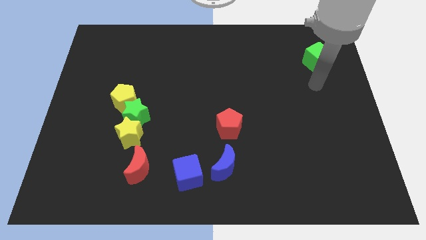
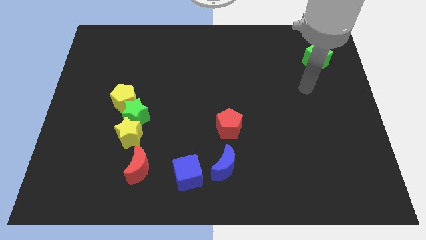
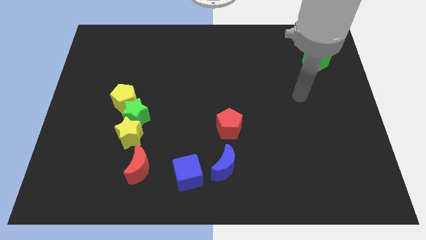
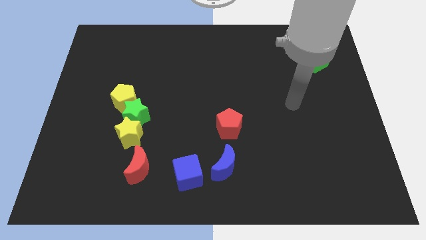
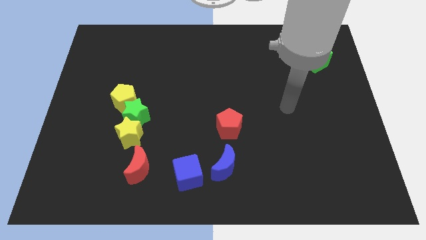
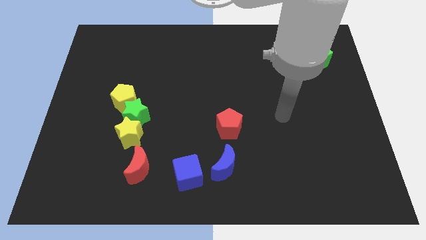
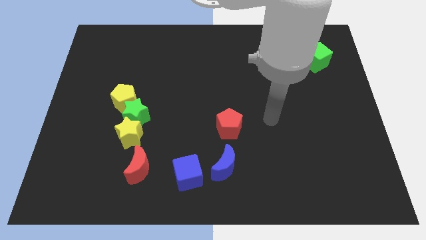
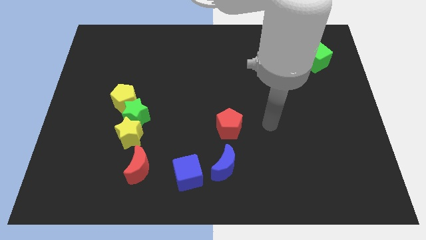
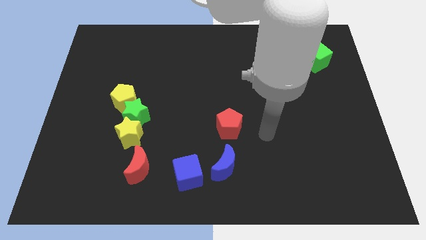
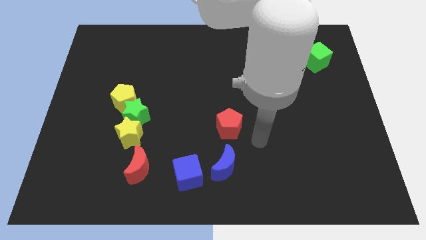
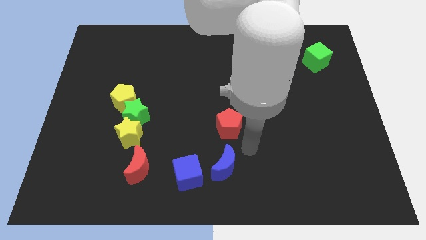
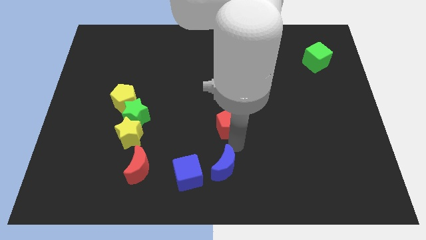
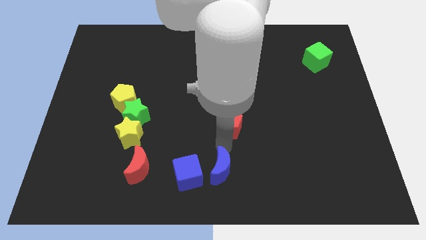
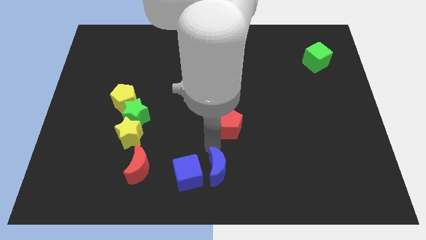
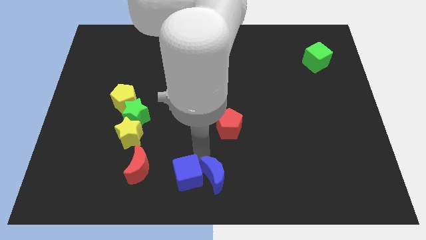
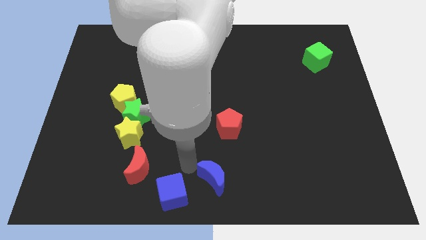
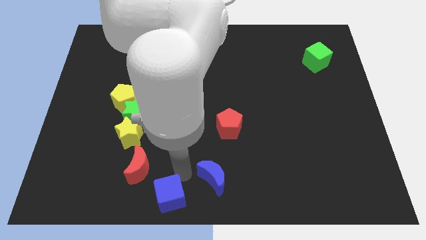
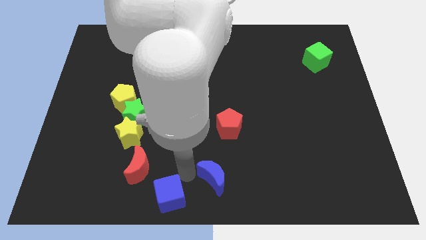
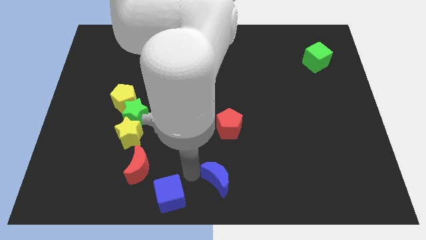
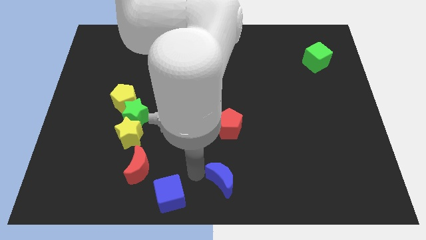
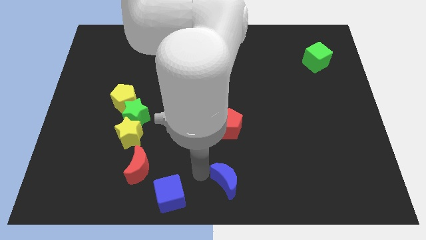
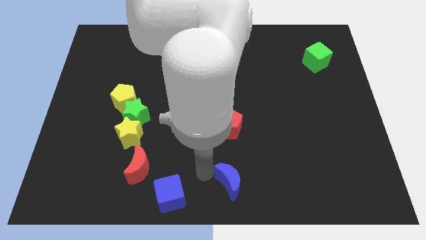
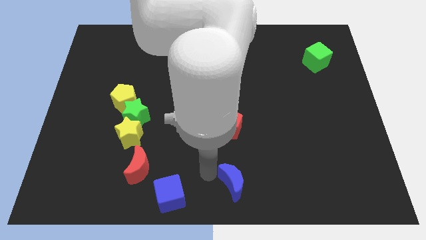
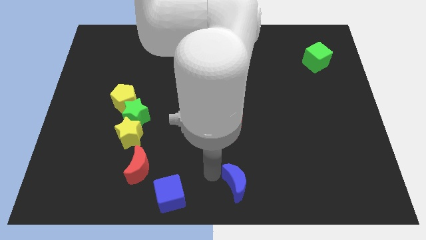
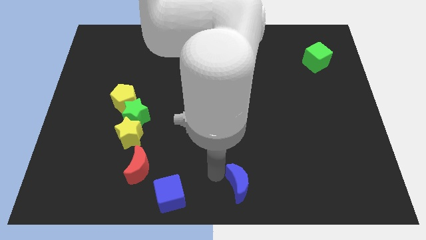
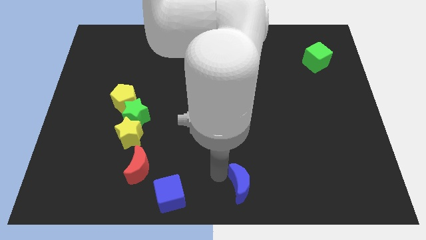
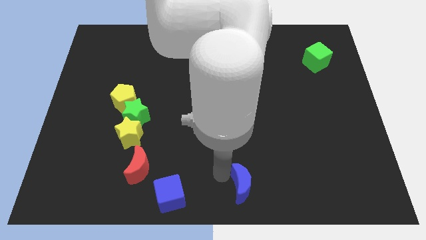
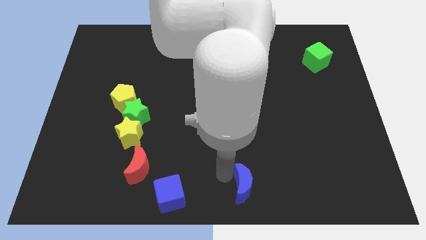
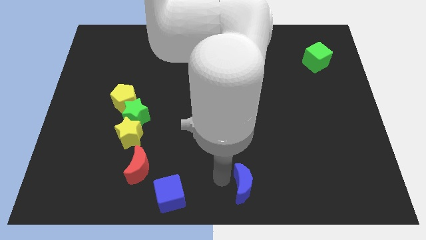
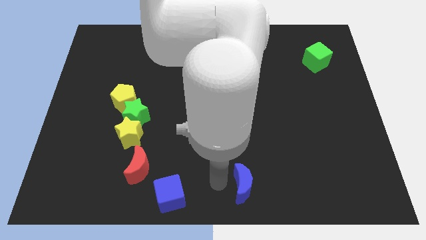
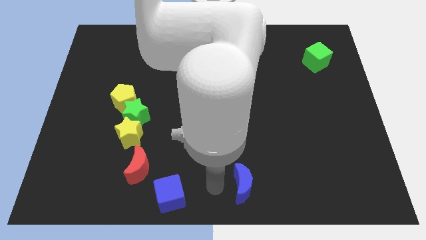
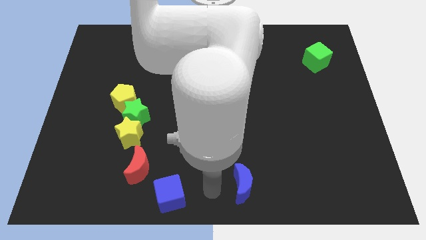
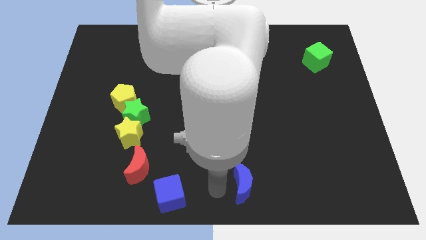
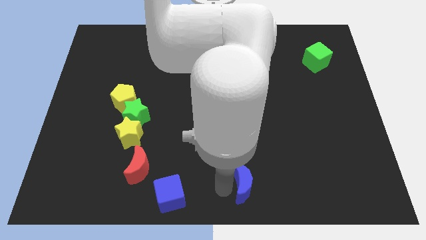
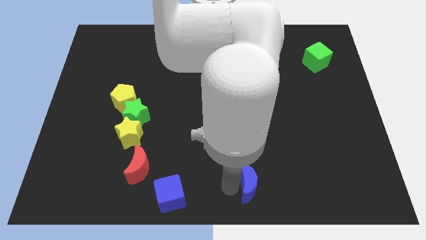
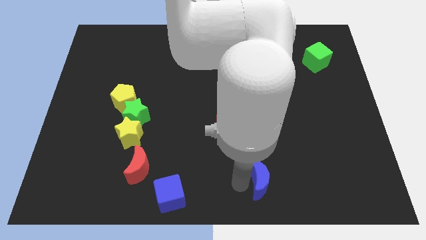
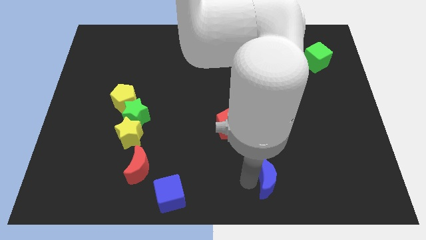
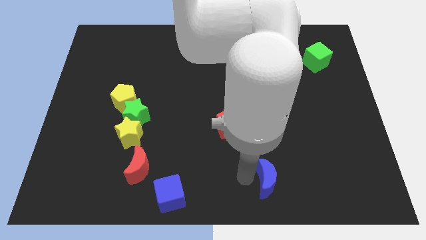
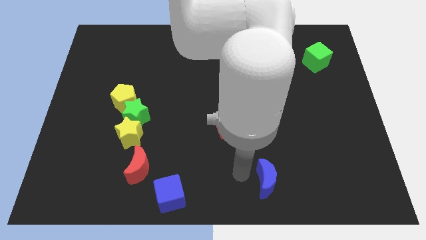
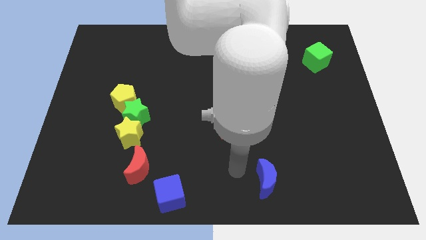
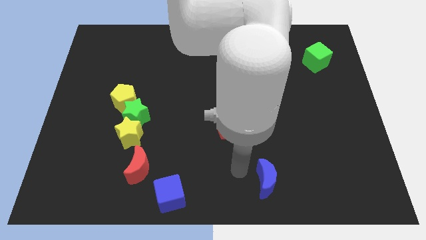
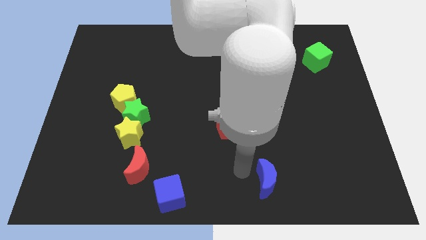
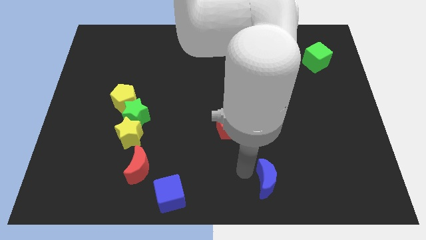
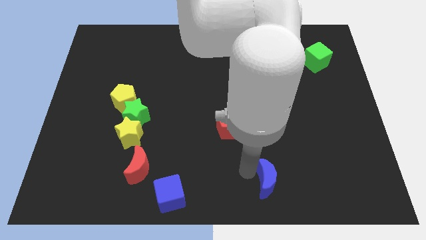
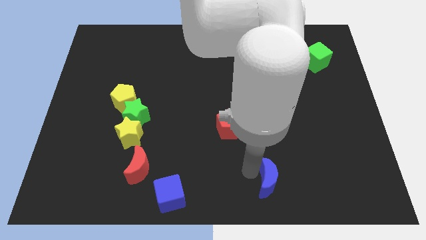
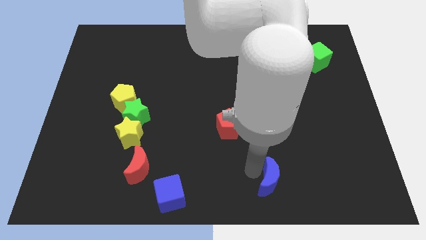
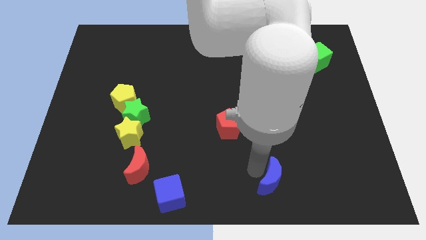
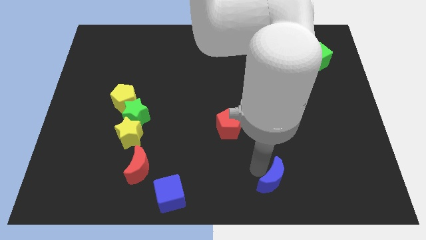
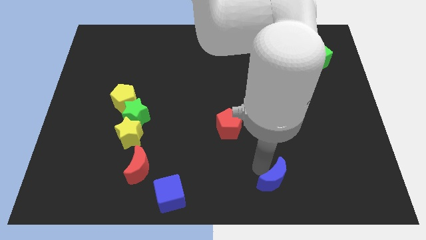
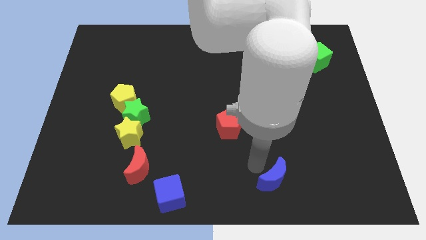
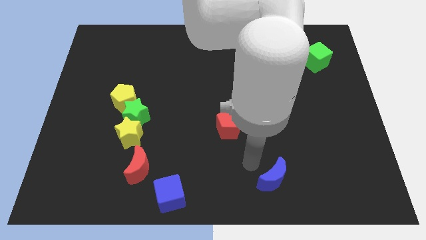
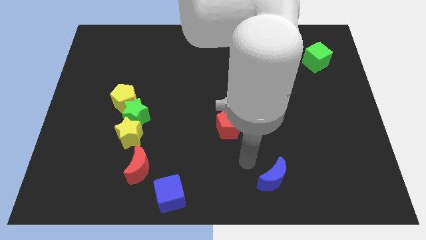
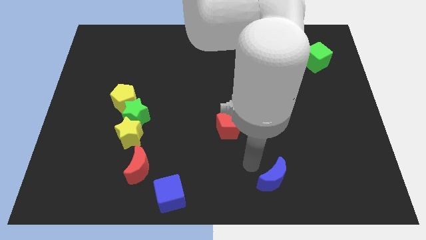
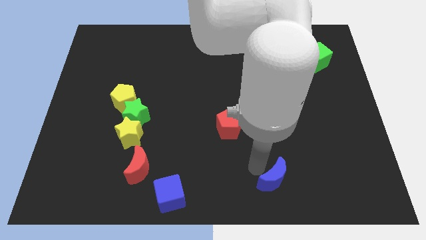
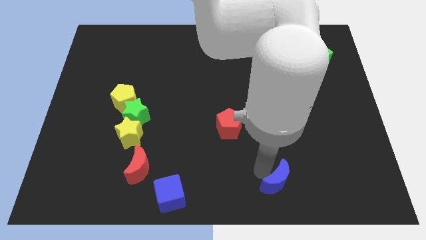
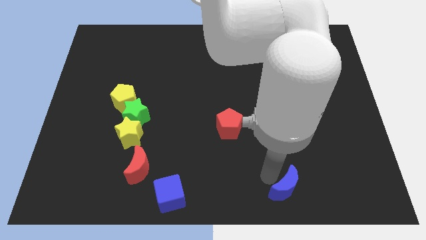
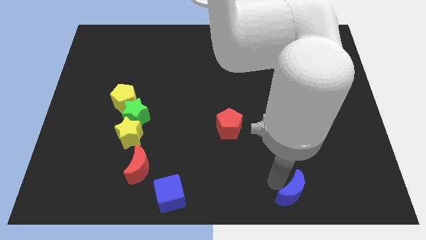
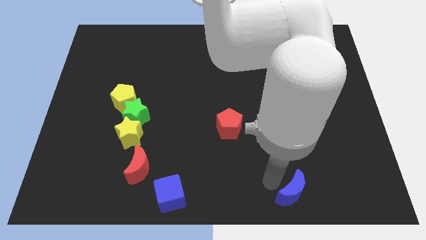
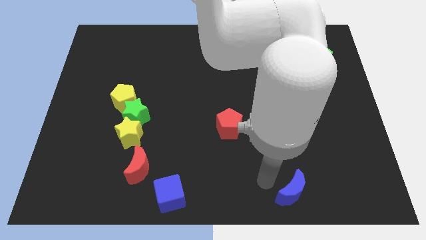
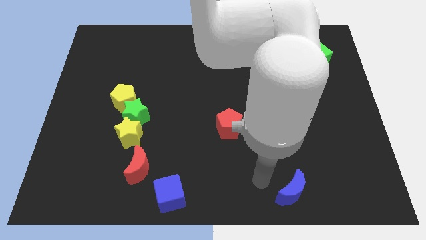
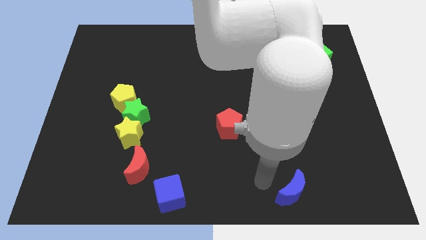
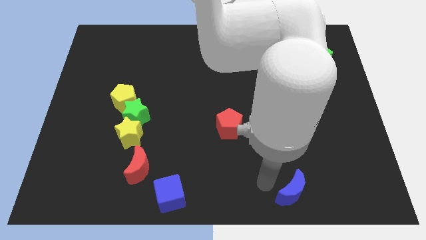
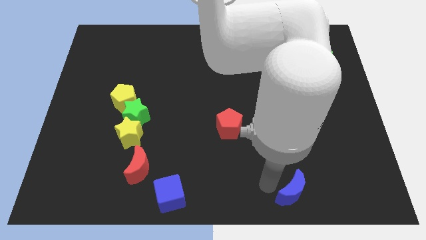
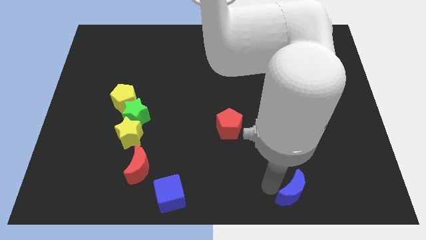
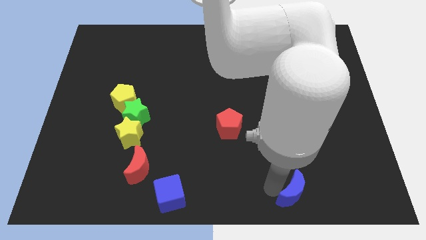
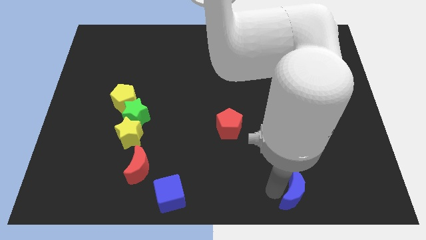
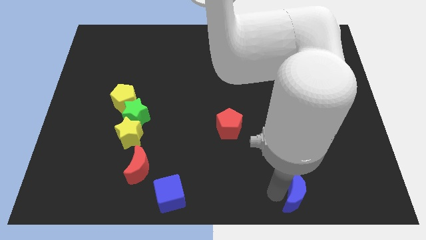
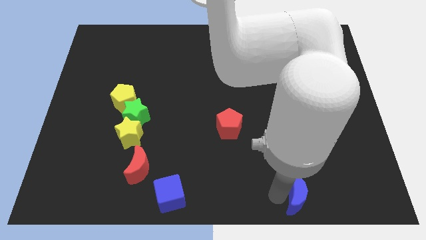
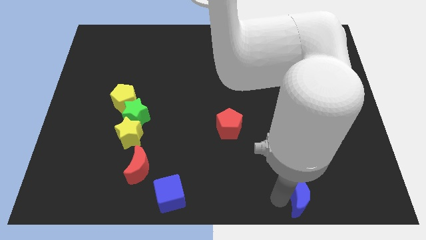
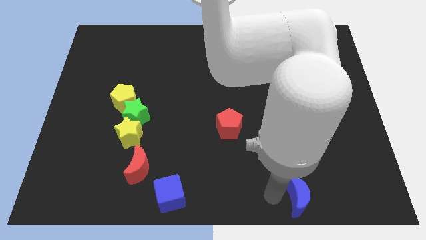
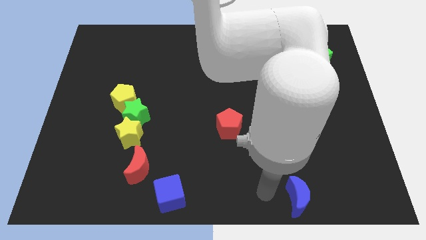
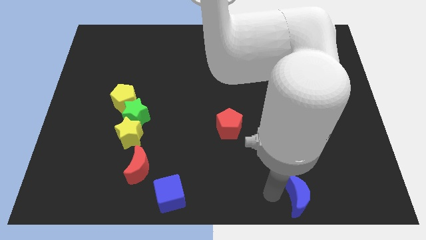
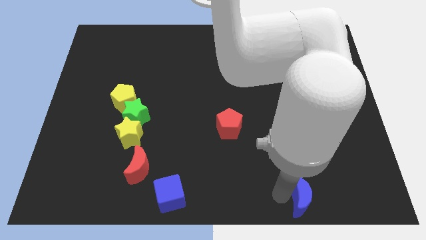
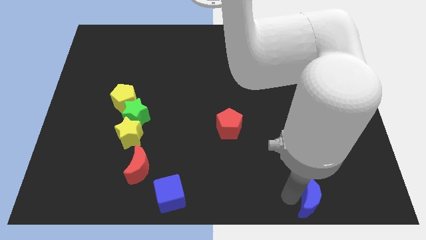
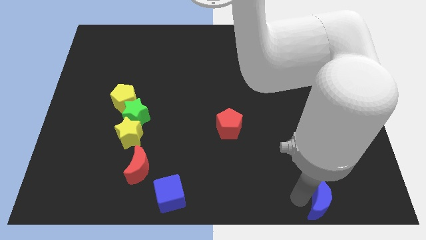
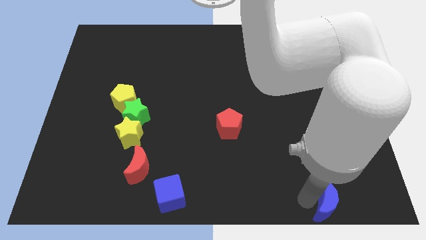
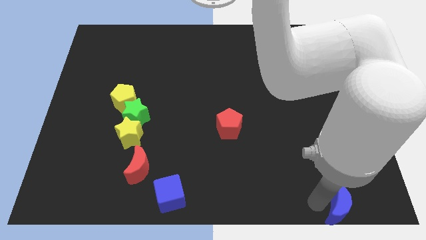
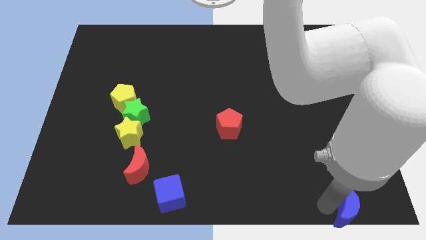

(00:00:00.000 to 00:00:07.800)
put the blue moon to the bottom right corner
